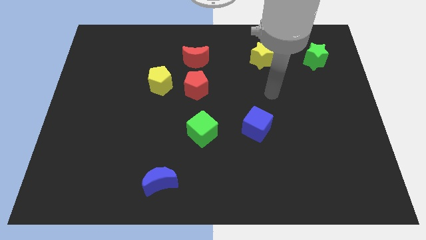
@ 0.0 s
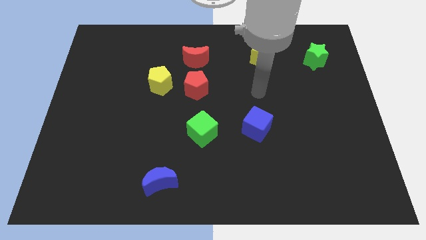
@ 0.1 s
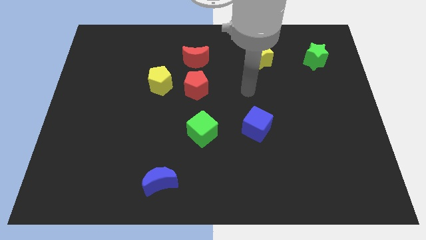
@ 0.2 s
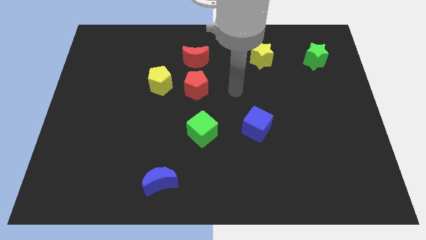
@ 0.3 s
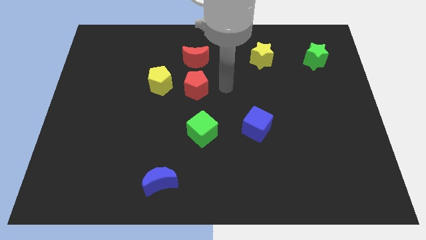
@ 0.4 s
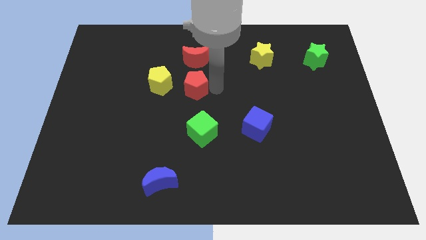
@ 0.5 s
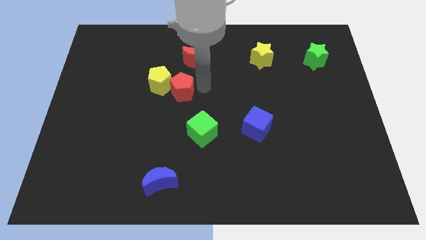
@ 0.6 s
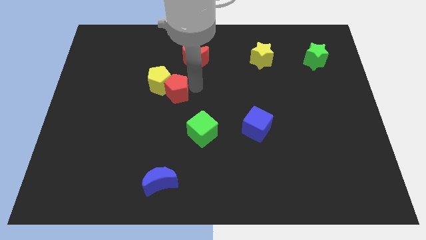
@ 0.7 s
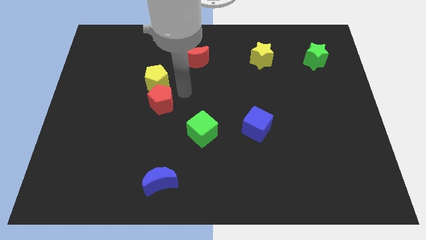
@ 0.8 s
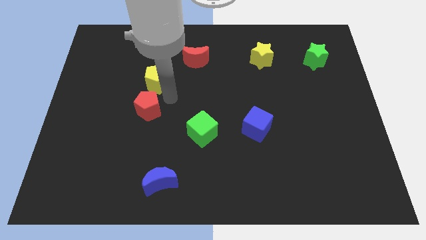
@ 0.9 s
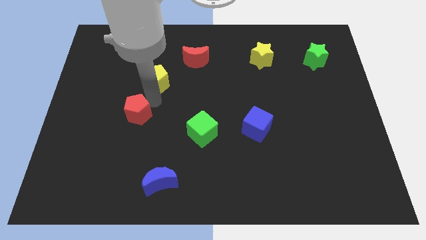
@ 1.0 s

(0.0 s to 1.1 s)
pull the yellow pentagon apart from the red pentagon

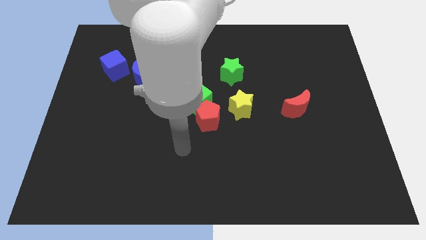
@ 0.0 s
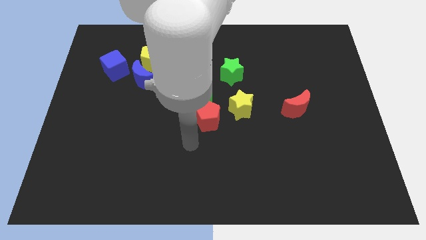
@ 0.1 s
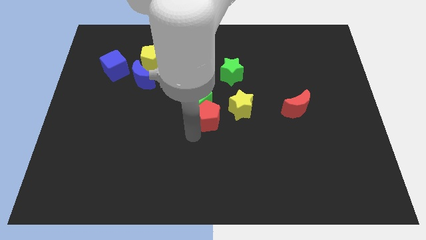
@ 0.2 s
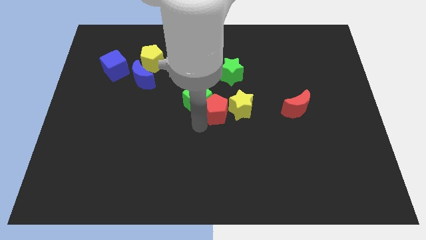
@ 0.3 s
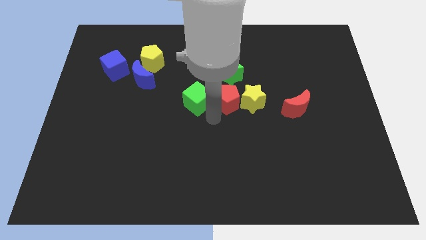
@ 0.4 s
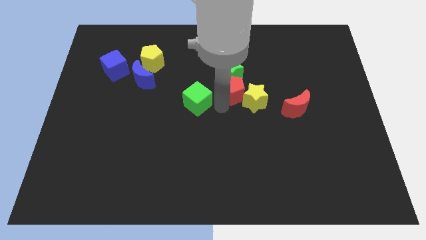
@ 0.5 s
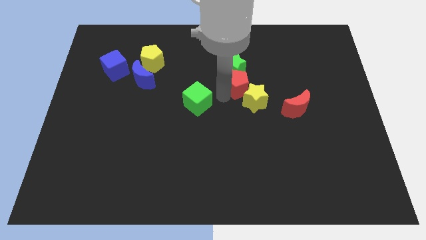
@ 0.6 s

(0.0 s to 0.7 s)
separate the green cube from the red pentagon

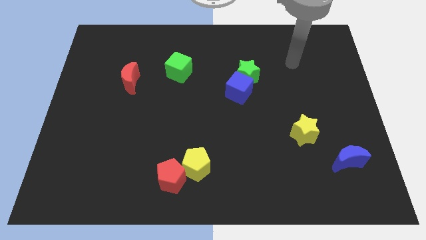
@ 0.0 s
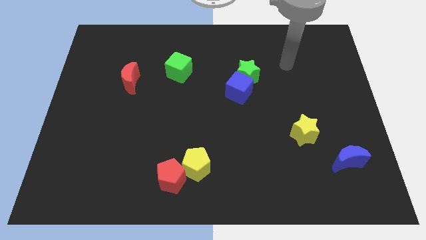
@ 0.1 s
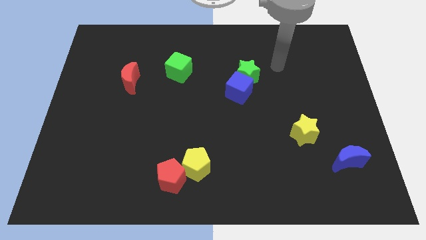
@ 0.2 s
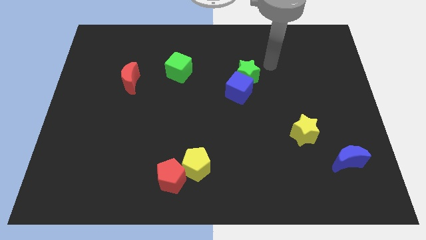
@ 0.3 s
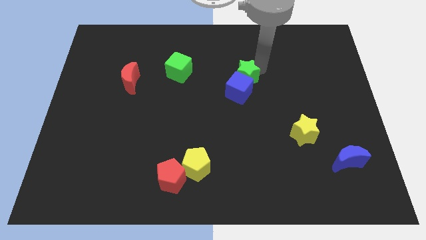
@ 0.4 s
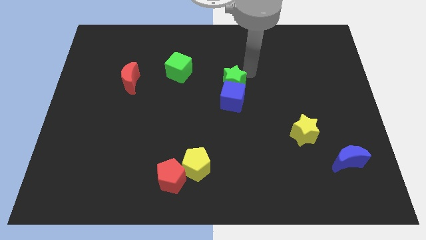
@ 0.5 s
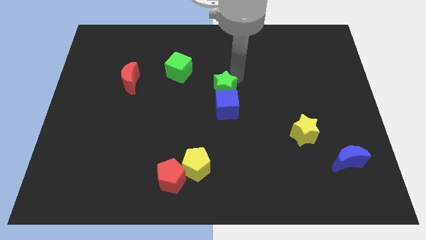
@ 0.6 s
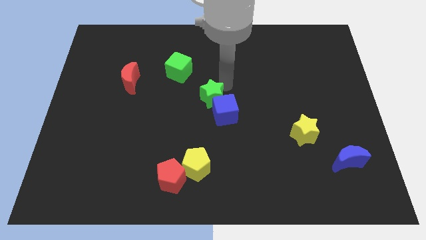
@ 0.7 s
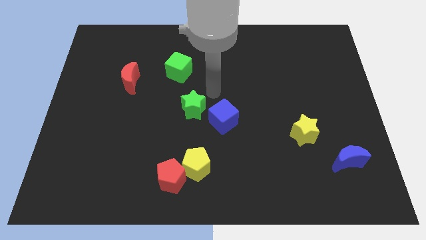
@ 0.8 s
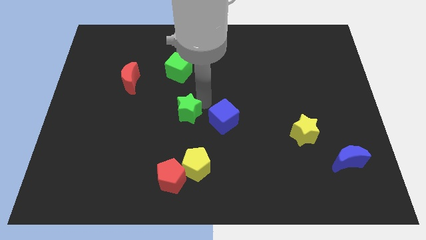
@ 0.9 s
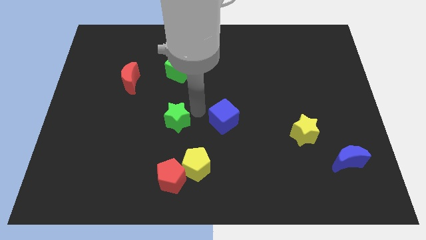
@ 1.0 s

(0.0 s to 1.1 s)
separate the blue cube from the green star

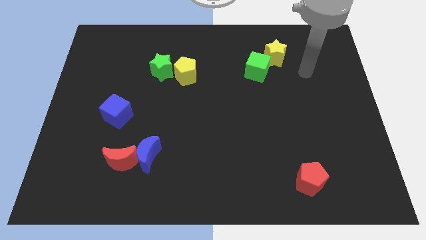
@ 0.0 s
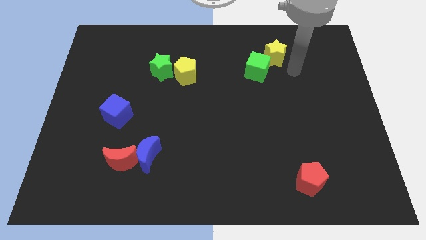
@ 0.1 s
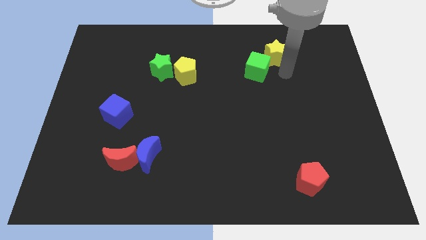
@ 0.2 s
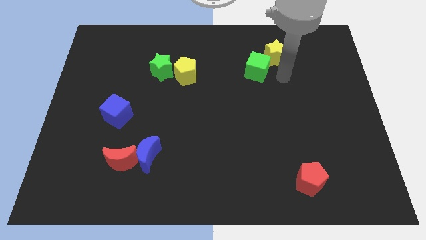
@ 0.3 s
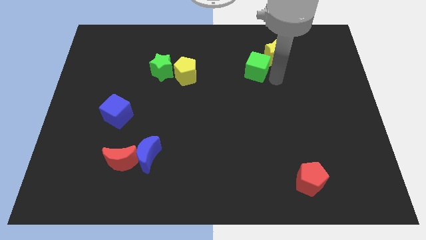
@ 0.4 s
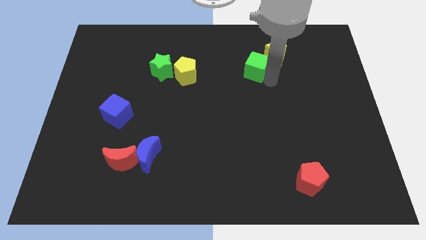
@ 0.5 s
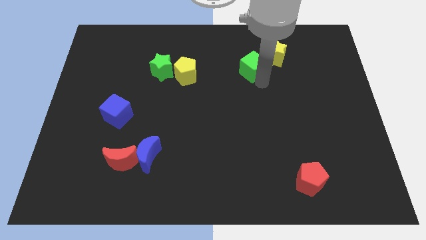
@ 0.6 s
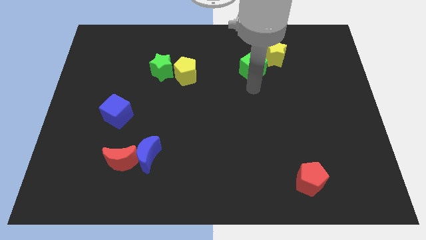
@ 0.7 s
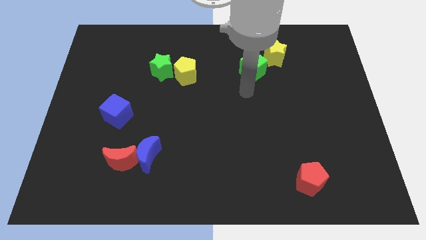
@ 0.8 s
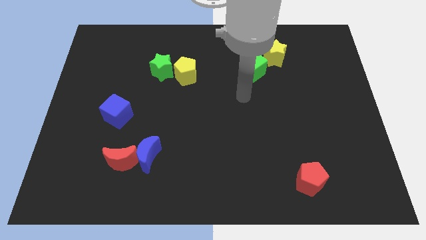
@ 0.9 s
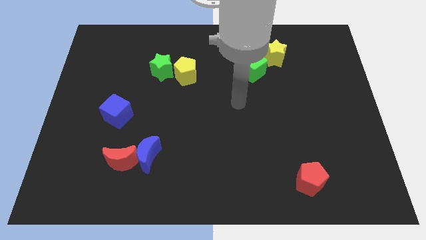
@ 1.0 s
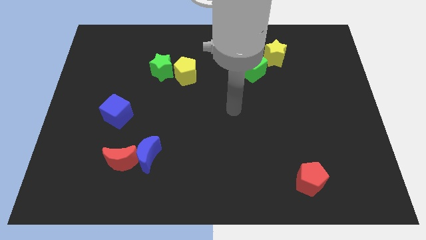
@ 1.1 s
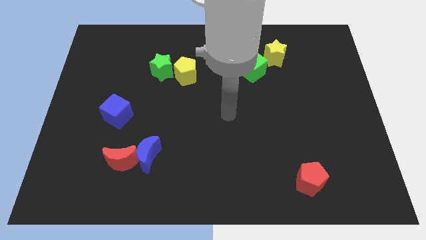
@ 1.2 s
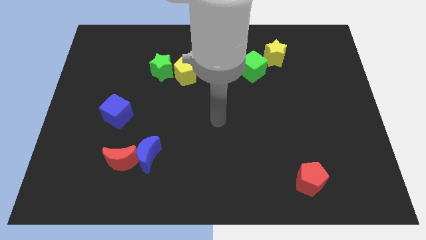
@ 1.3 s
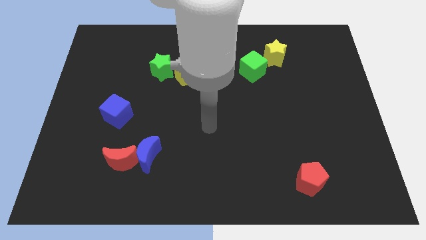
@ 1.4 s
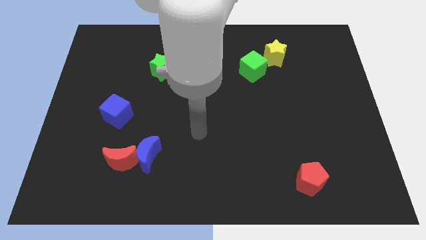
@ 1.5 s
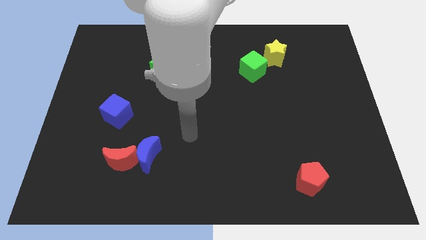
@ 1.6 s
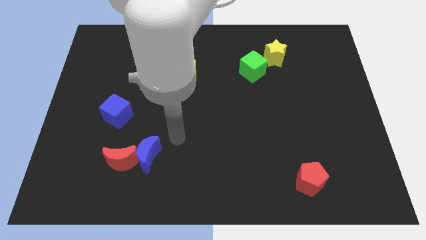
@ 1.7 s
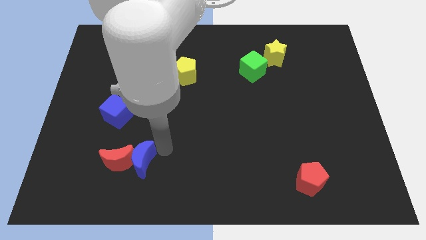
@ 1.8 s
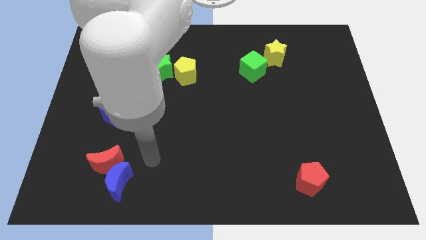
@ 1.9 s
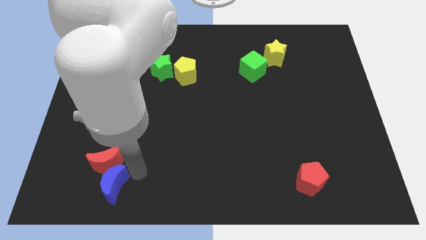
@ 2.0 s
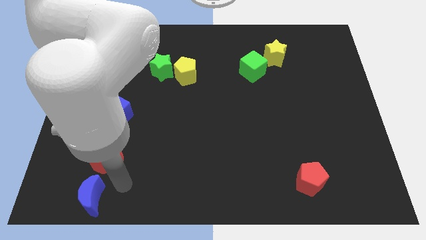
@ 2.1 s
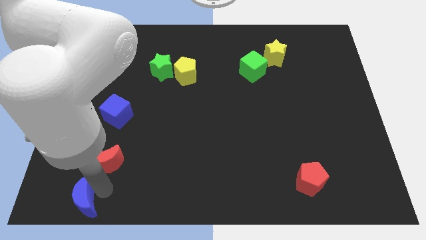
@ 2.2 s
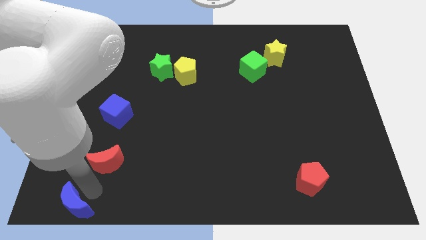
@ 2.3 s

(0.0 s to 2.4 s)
move the red moon away from the blue moon

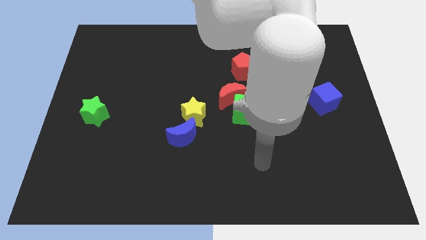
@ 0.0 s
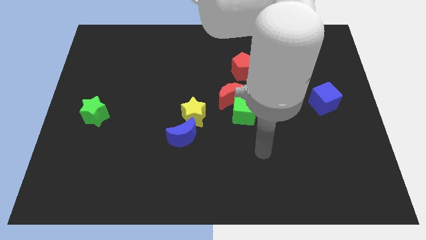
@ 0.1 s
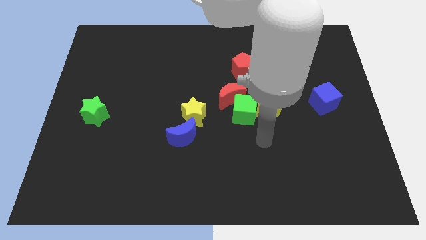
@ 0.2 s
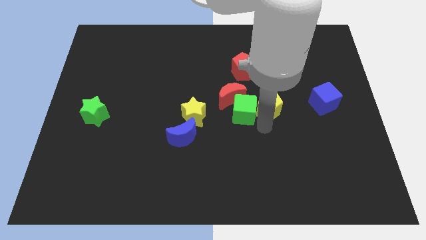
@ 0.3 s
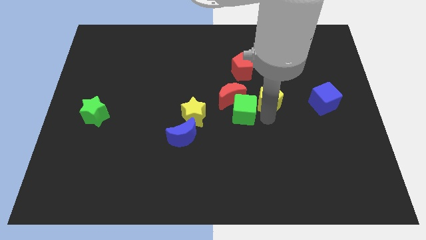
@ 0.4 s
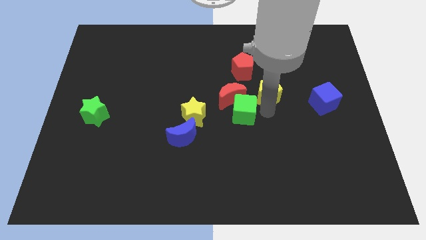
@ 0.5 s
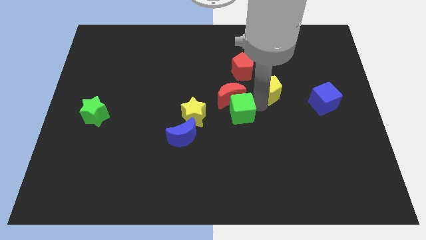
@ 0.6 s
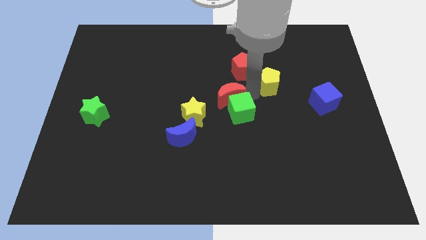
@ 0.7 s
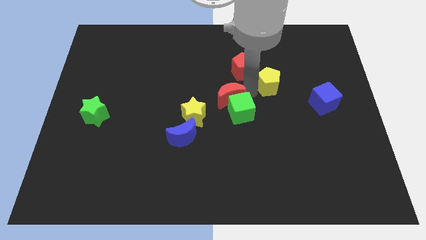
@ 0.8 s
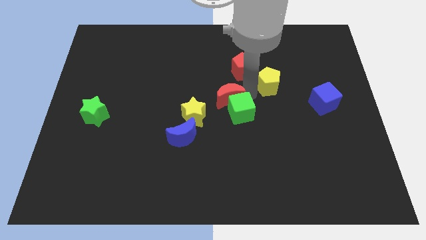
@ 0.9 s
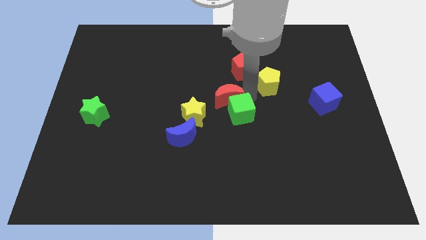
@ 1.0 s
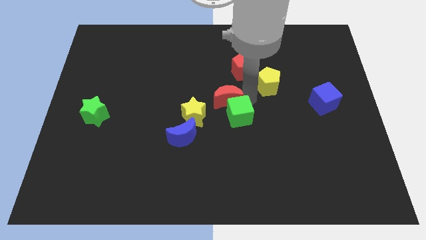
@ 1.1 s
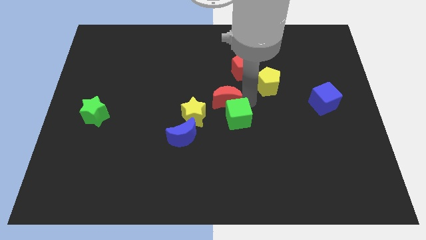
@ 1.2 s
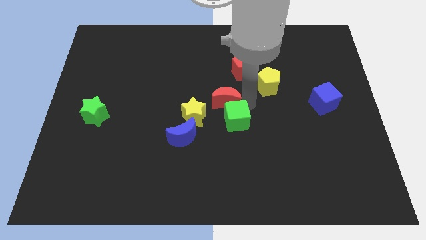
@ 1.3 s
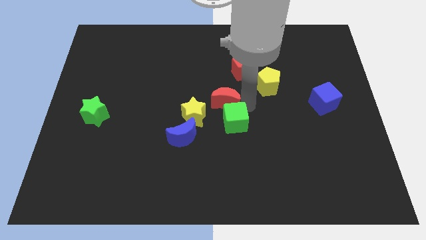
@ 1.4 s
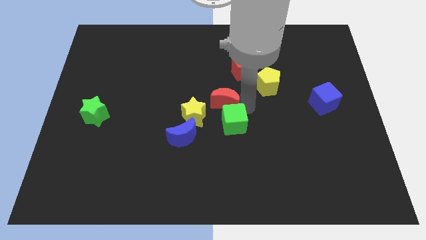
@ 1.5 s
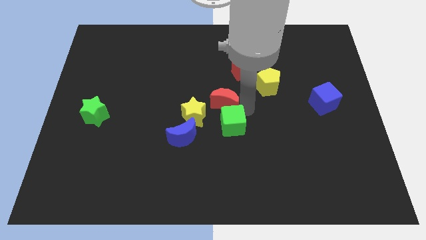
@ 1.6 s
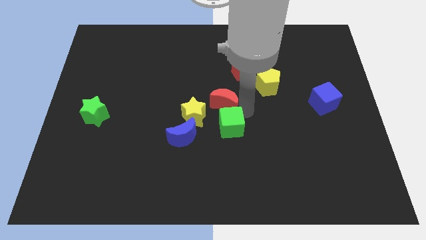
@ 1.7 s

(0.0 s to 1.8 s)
move the green cube away from the red moon and yellow pentagon

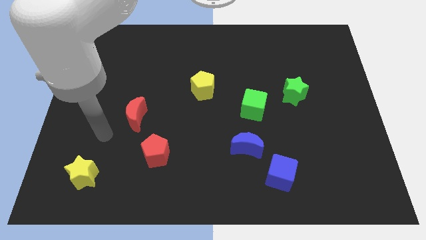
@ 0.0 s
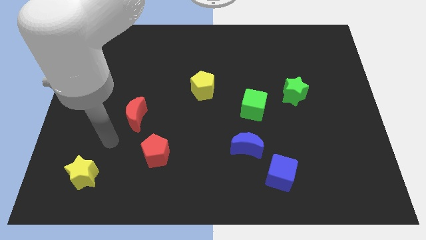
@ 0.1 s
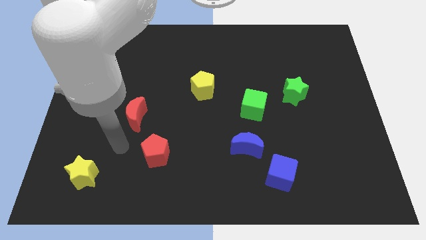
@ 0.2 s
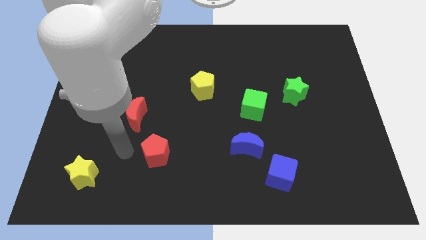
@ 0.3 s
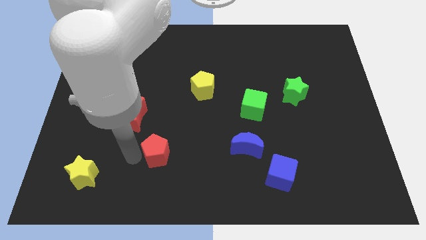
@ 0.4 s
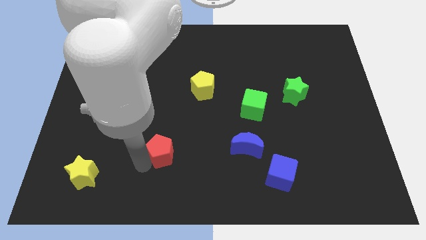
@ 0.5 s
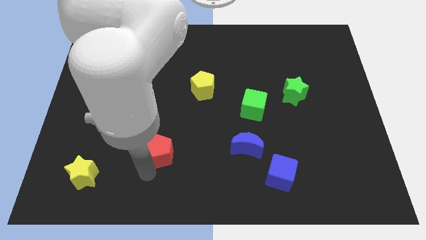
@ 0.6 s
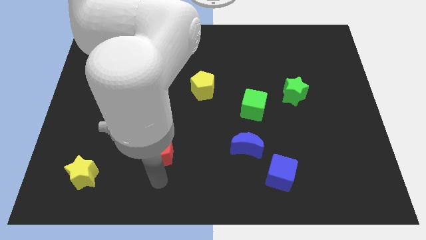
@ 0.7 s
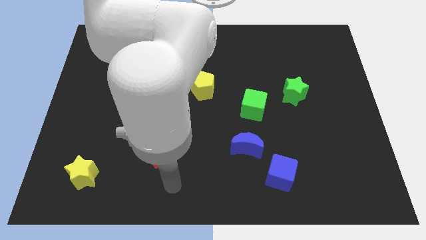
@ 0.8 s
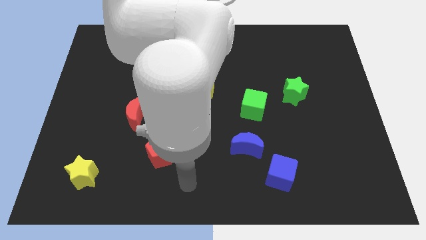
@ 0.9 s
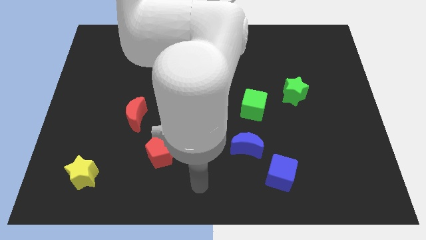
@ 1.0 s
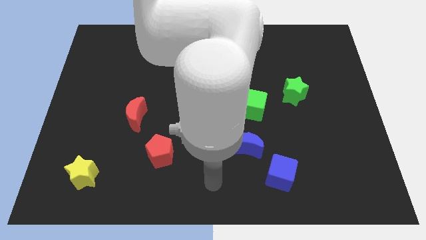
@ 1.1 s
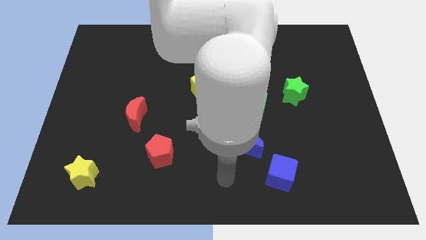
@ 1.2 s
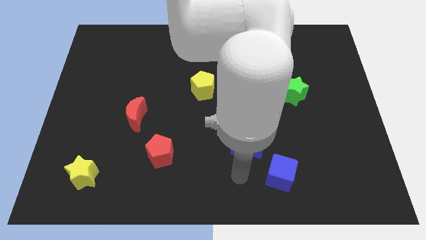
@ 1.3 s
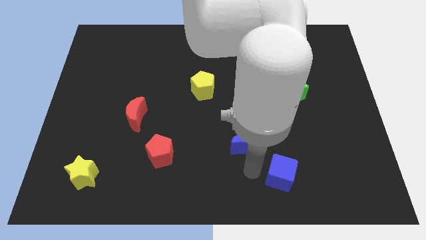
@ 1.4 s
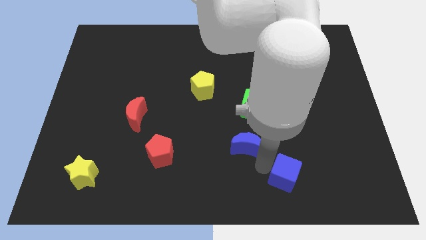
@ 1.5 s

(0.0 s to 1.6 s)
pull the blue moon apart from the blue cube

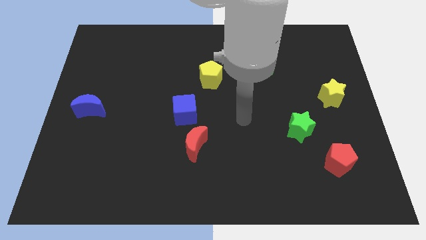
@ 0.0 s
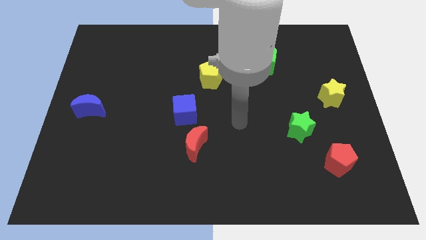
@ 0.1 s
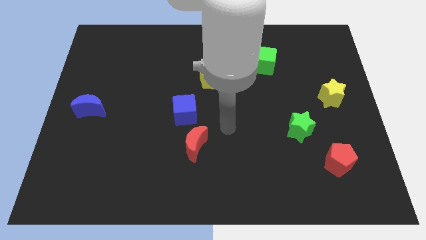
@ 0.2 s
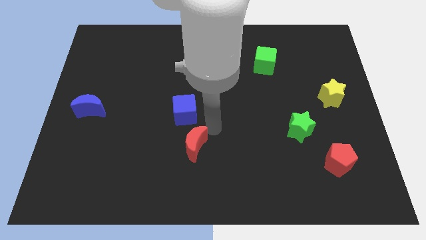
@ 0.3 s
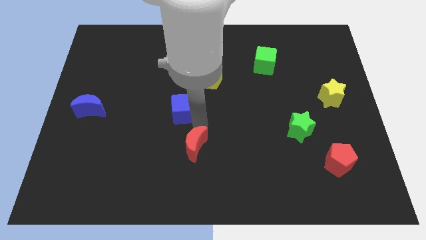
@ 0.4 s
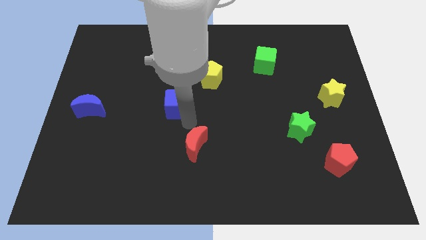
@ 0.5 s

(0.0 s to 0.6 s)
pull the red moon apart from the blue cube

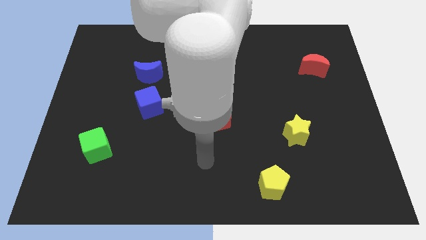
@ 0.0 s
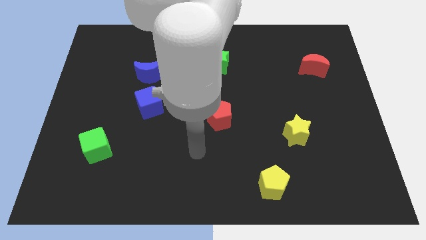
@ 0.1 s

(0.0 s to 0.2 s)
move the blue moon away from the blue cube
